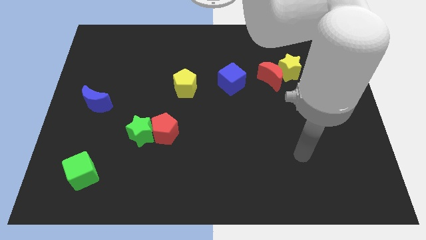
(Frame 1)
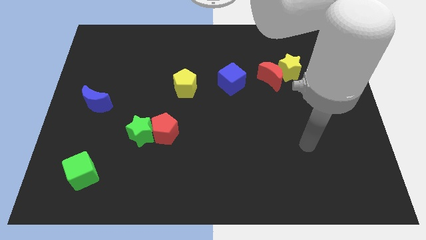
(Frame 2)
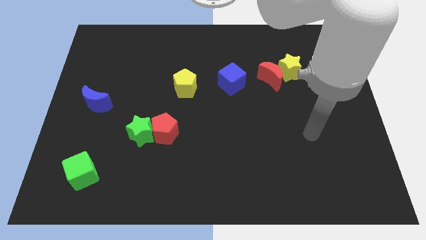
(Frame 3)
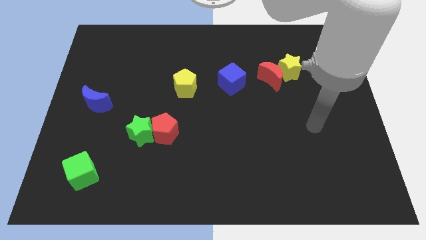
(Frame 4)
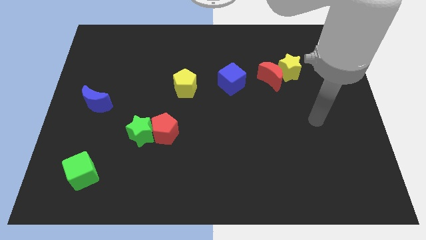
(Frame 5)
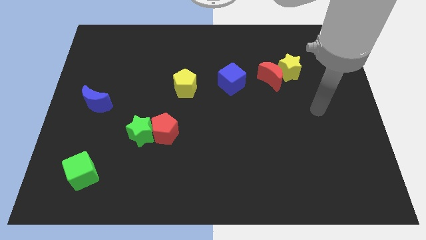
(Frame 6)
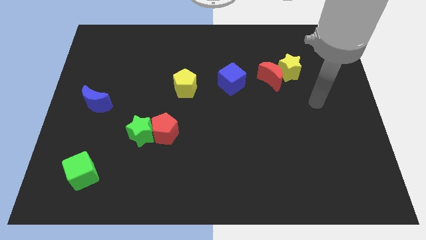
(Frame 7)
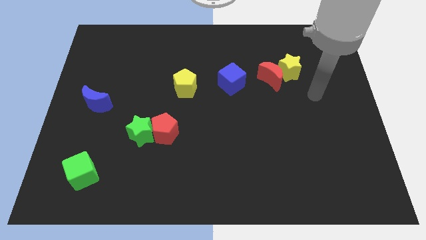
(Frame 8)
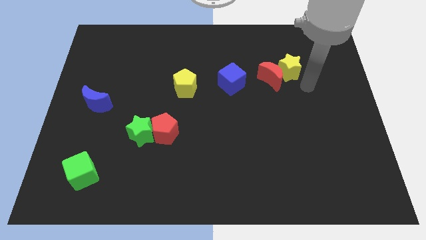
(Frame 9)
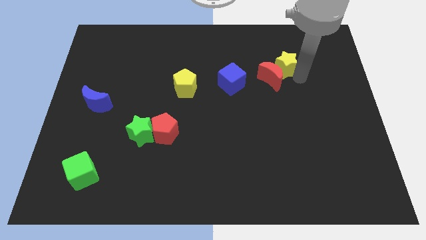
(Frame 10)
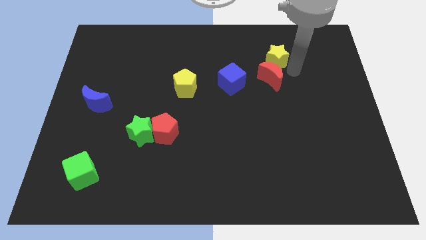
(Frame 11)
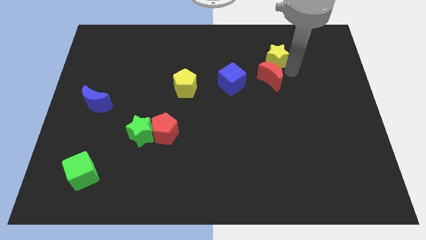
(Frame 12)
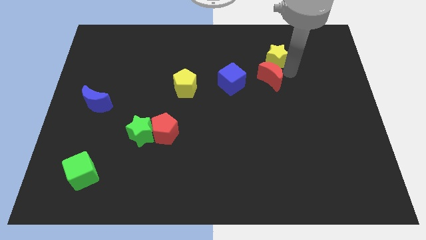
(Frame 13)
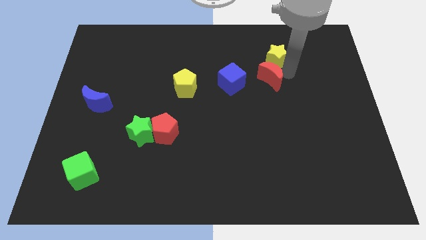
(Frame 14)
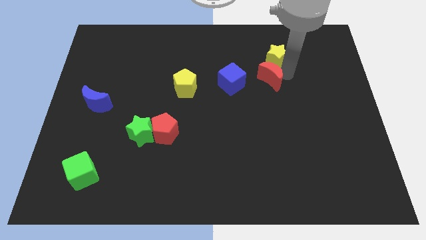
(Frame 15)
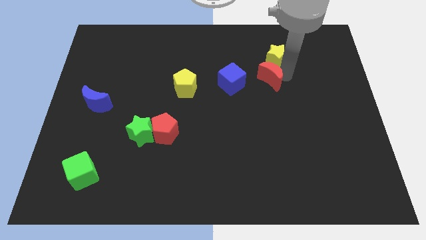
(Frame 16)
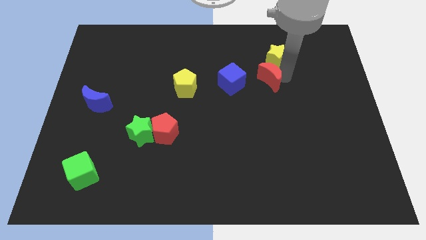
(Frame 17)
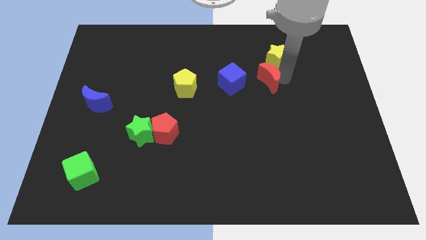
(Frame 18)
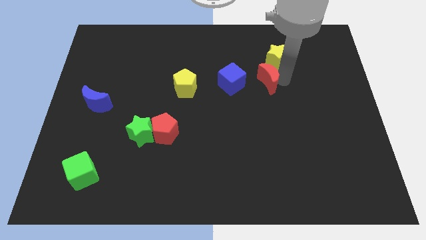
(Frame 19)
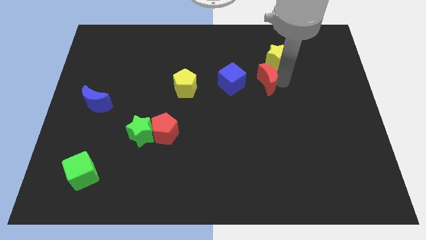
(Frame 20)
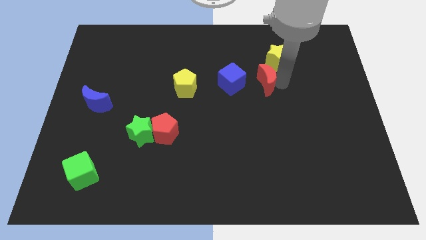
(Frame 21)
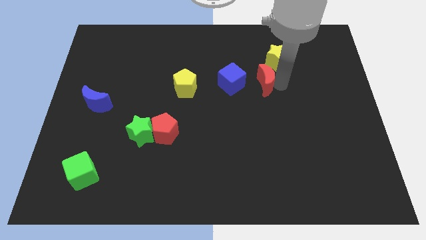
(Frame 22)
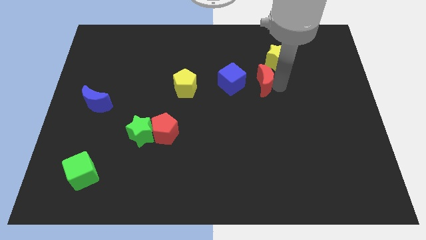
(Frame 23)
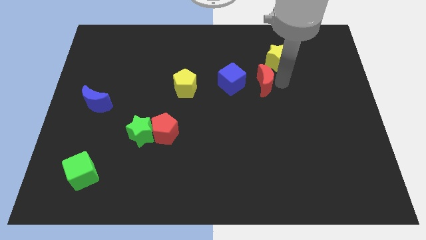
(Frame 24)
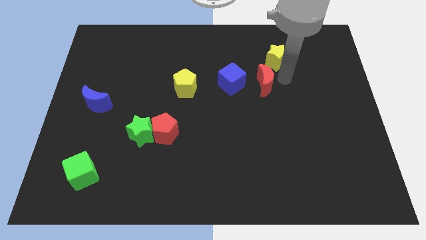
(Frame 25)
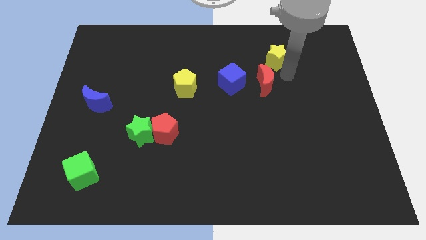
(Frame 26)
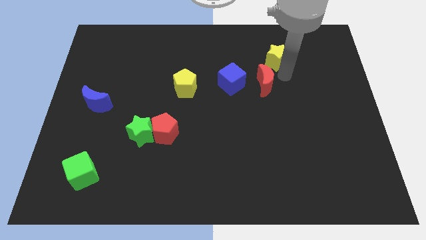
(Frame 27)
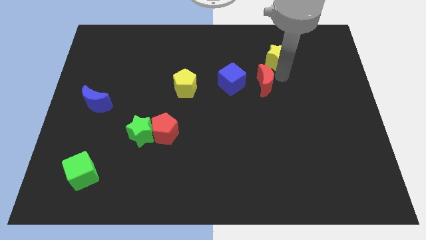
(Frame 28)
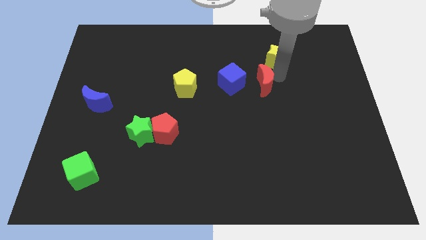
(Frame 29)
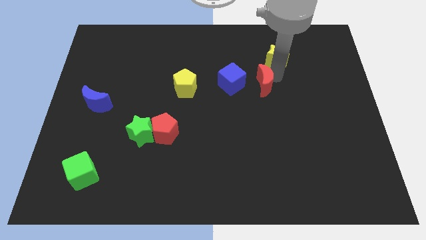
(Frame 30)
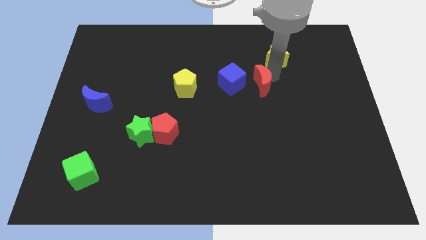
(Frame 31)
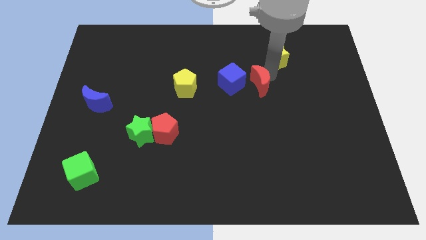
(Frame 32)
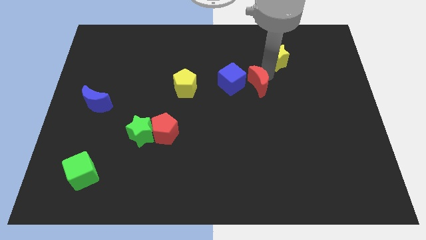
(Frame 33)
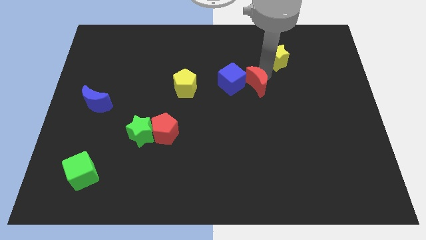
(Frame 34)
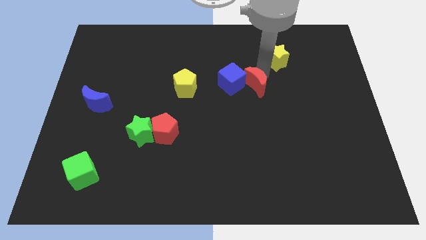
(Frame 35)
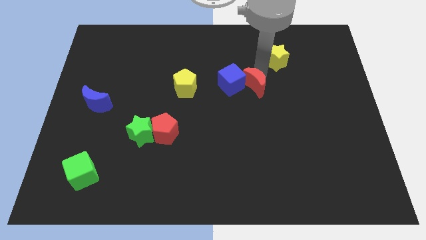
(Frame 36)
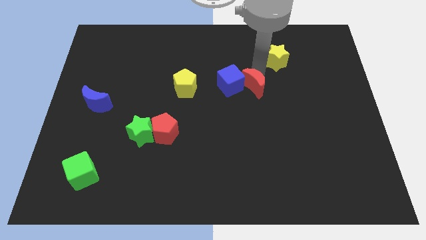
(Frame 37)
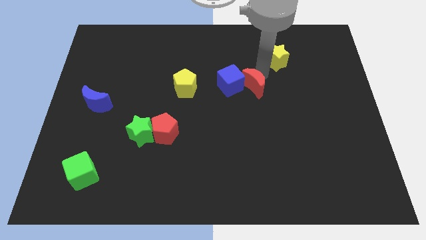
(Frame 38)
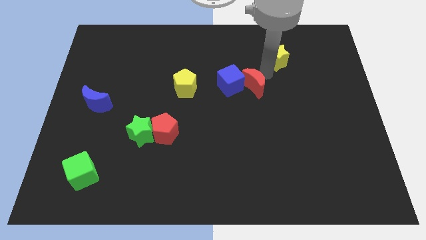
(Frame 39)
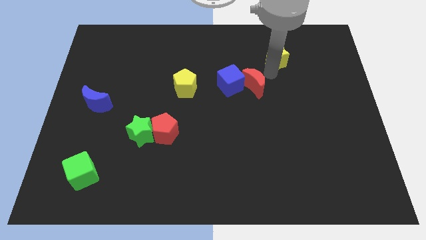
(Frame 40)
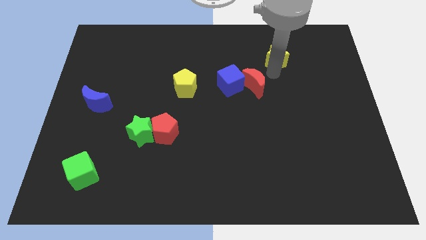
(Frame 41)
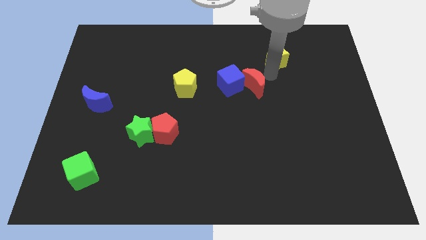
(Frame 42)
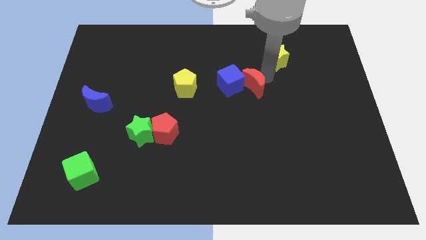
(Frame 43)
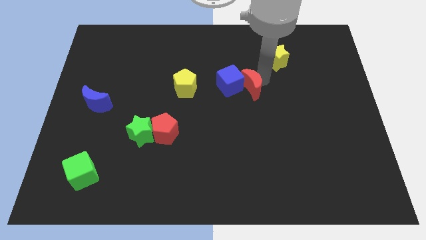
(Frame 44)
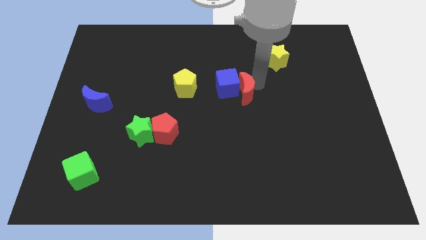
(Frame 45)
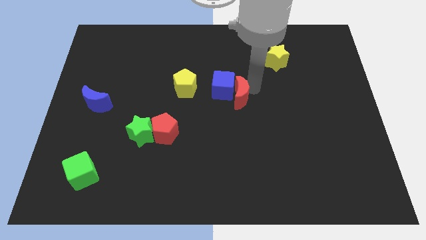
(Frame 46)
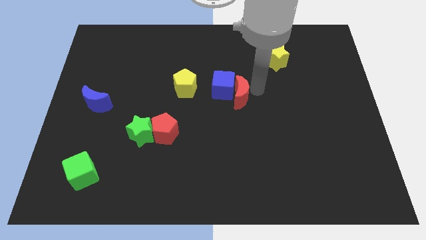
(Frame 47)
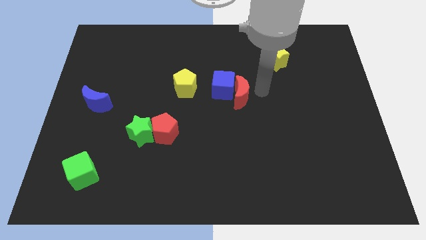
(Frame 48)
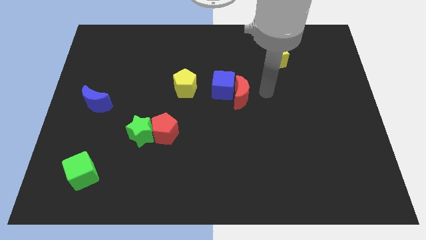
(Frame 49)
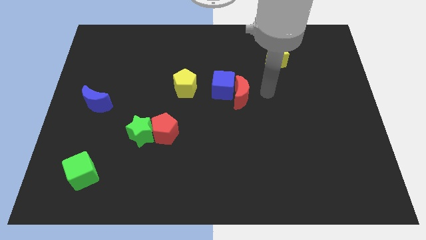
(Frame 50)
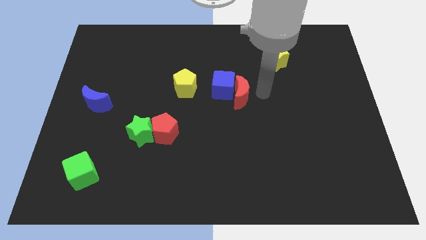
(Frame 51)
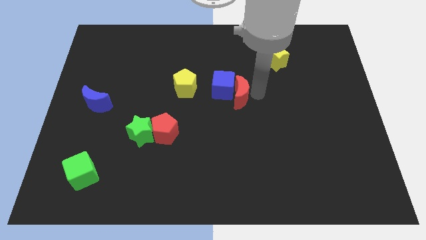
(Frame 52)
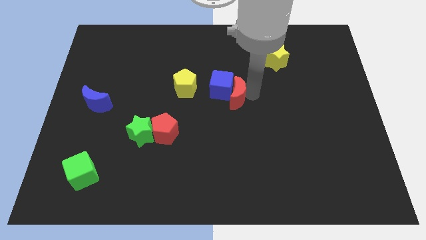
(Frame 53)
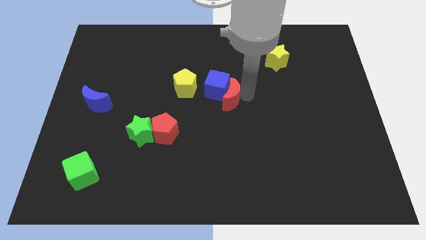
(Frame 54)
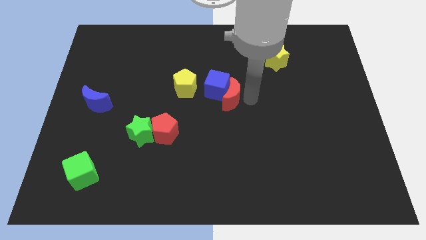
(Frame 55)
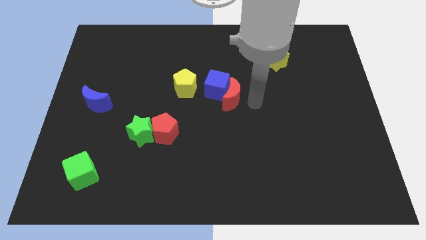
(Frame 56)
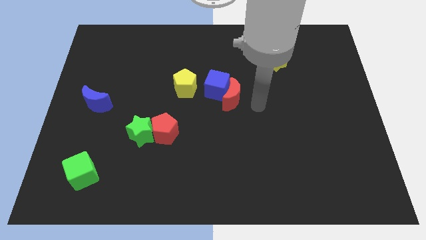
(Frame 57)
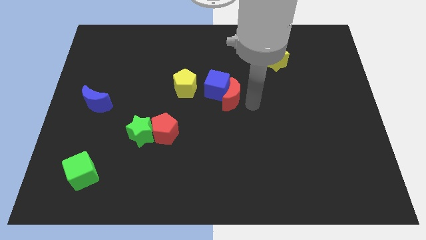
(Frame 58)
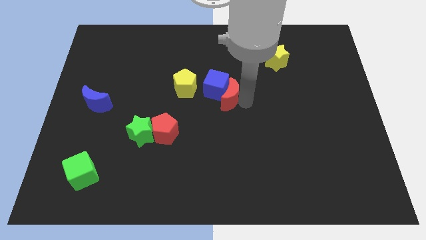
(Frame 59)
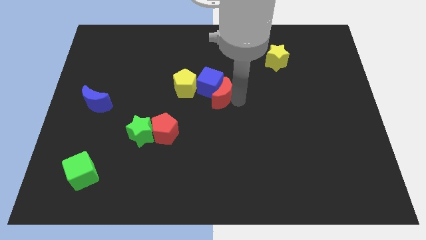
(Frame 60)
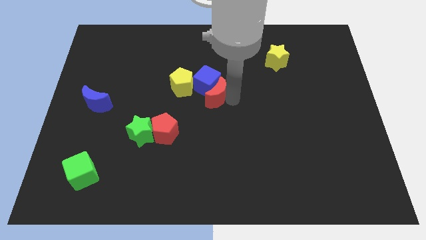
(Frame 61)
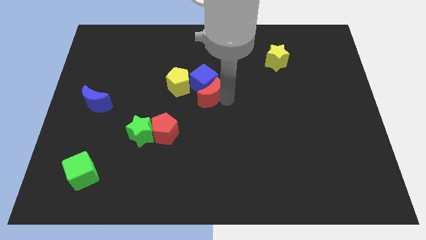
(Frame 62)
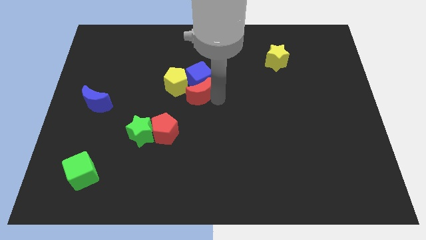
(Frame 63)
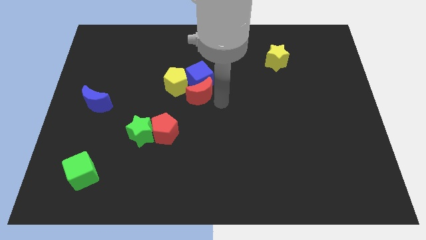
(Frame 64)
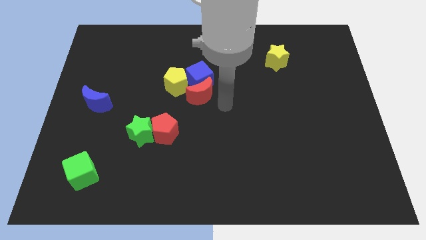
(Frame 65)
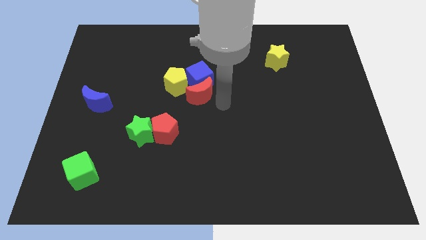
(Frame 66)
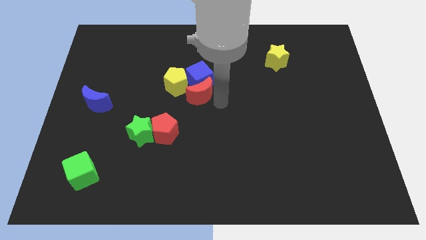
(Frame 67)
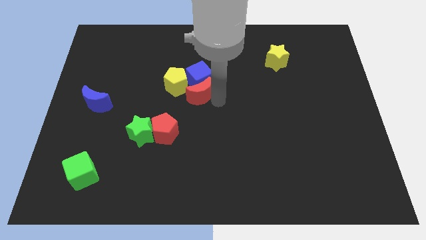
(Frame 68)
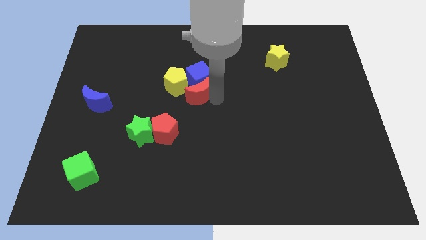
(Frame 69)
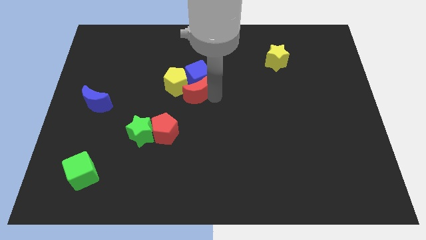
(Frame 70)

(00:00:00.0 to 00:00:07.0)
put the red moon close to the yellow pentagon

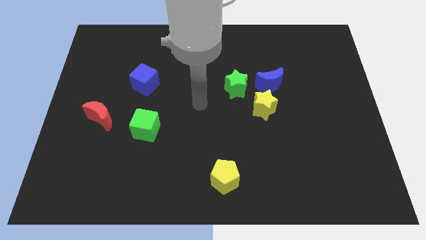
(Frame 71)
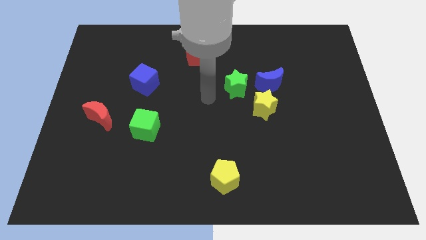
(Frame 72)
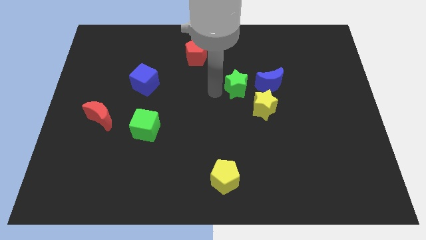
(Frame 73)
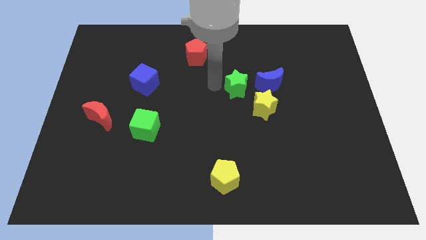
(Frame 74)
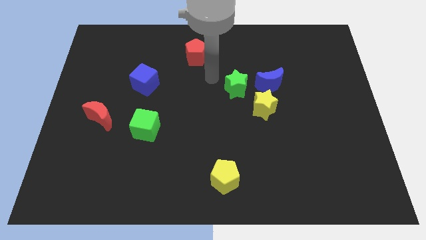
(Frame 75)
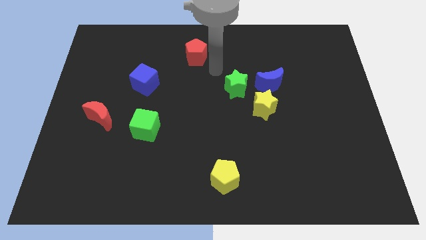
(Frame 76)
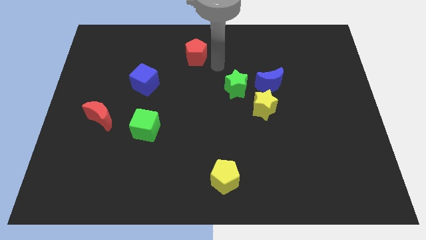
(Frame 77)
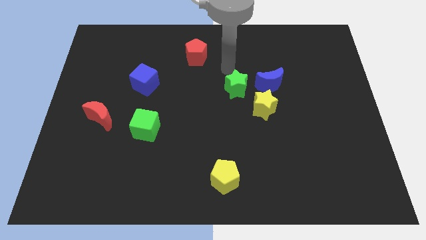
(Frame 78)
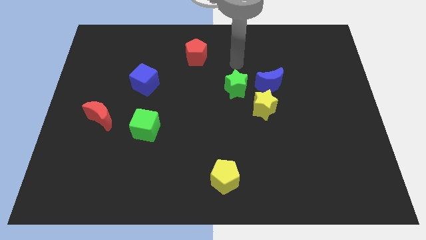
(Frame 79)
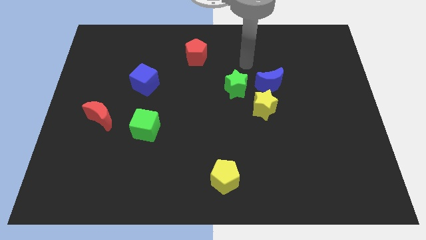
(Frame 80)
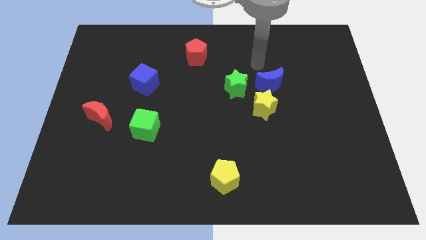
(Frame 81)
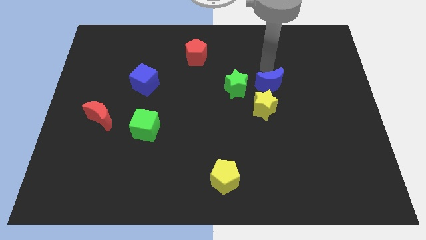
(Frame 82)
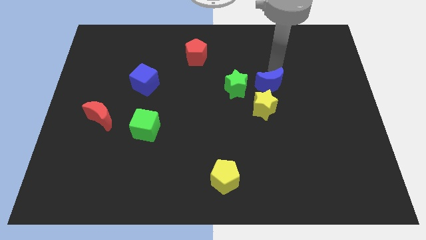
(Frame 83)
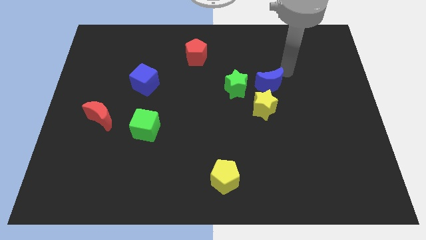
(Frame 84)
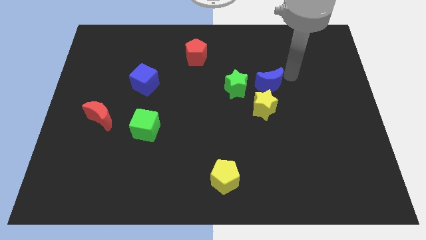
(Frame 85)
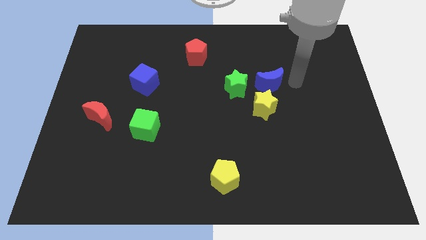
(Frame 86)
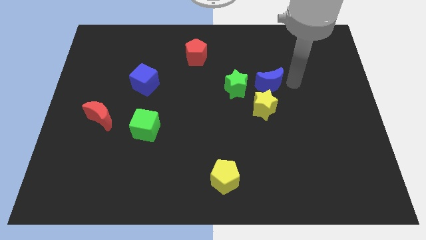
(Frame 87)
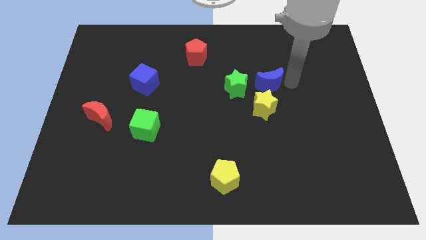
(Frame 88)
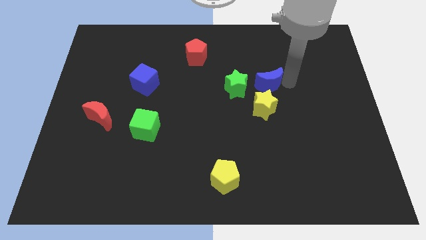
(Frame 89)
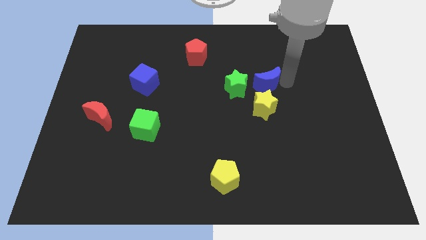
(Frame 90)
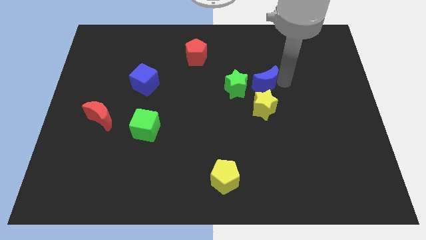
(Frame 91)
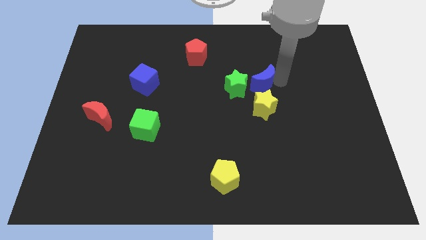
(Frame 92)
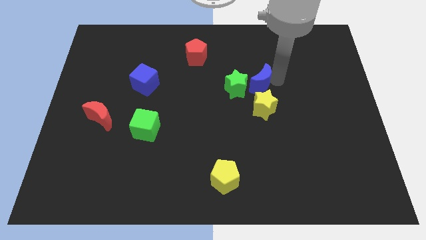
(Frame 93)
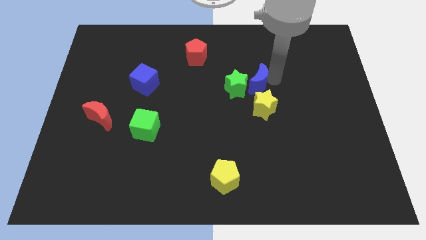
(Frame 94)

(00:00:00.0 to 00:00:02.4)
slide the blue moon close to the green star
